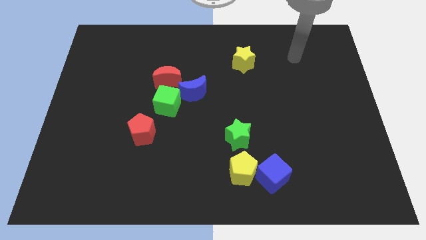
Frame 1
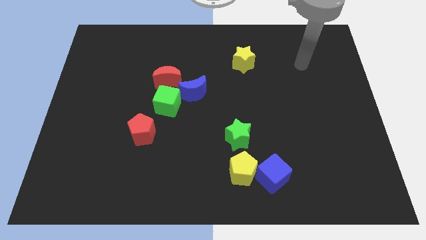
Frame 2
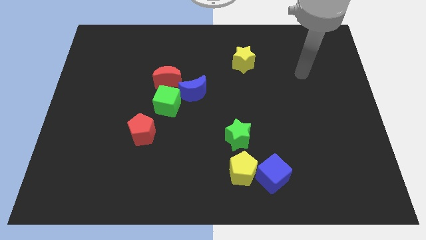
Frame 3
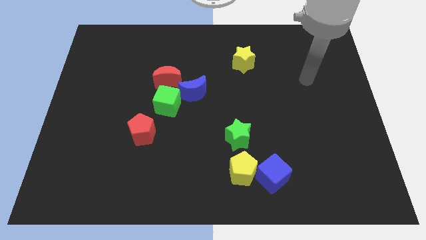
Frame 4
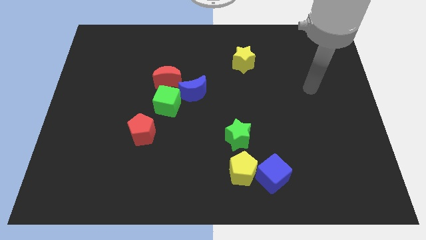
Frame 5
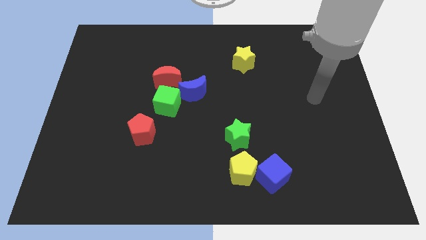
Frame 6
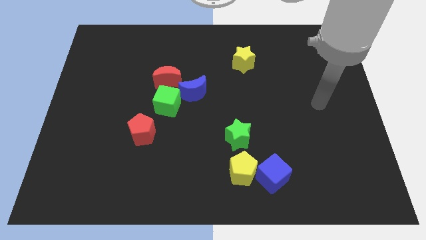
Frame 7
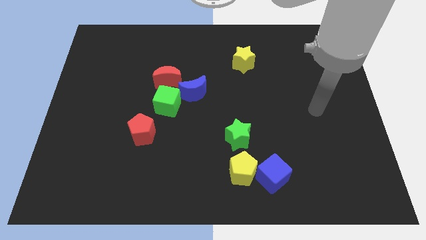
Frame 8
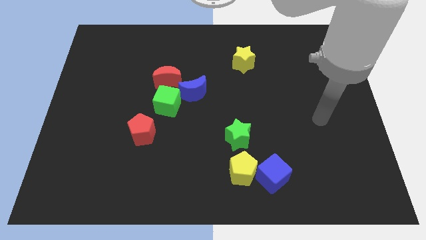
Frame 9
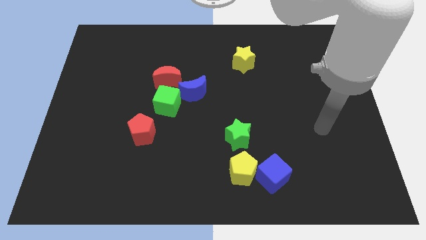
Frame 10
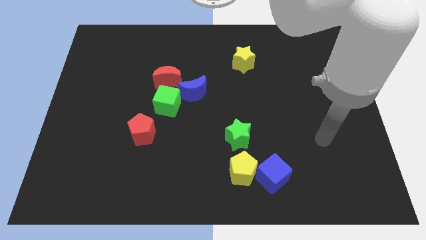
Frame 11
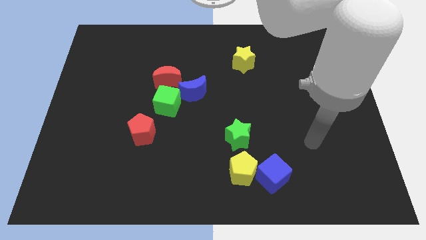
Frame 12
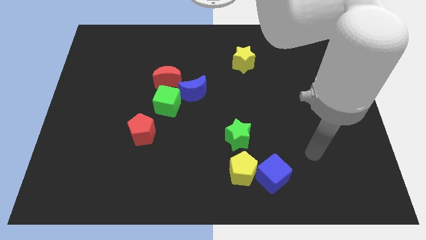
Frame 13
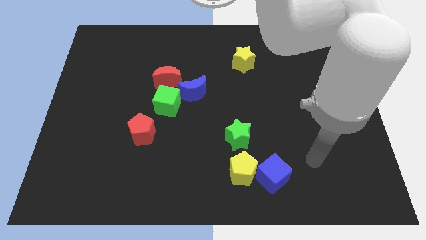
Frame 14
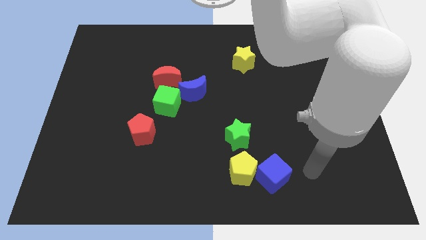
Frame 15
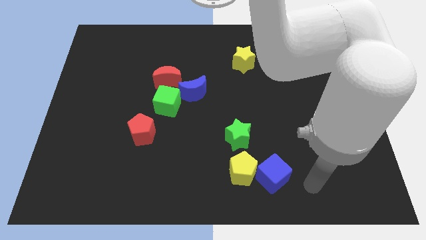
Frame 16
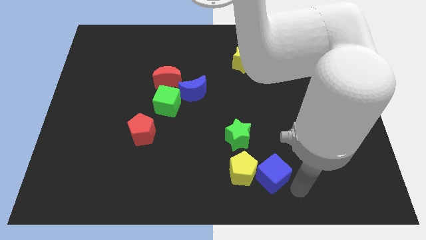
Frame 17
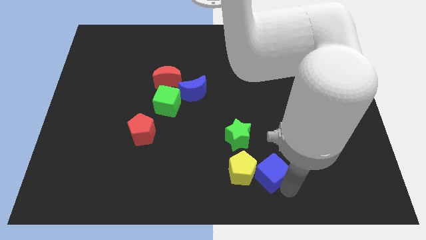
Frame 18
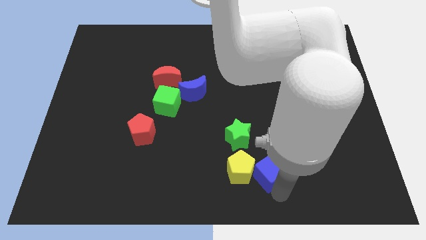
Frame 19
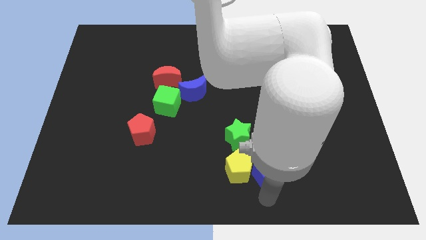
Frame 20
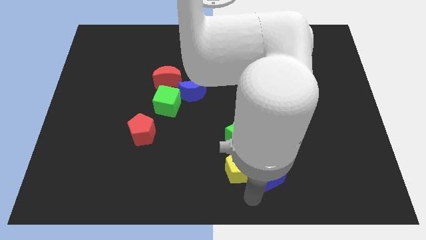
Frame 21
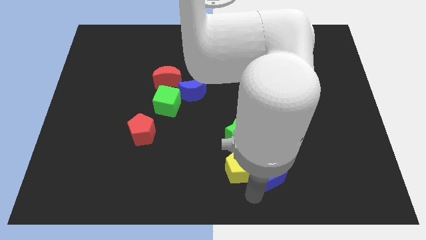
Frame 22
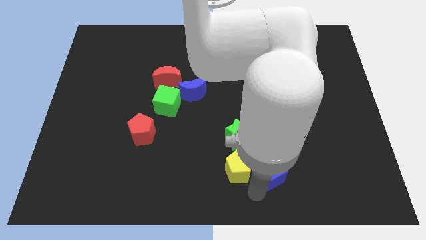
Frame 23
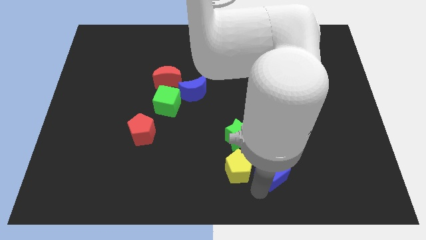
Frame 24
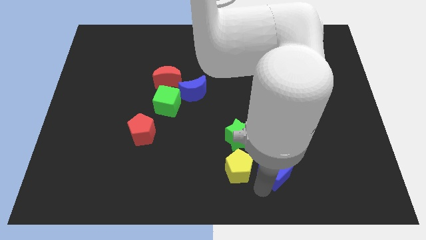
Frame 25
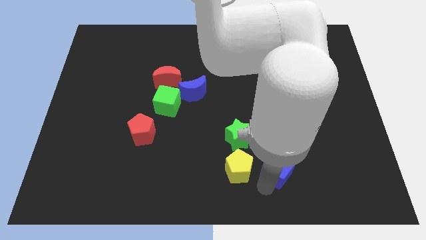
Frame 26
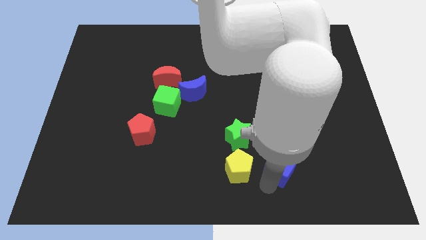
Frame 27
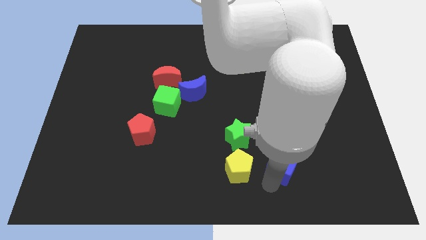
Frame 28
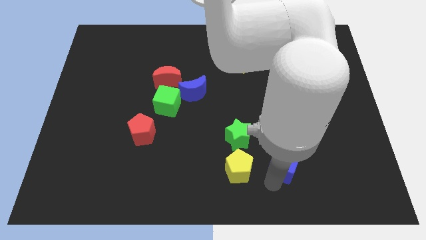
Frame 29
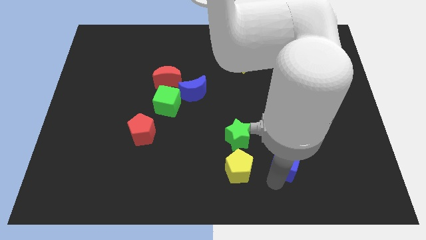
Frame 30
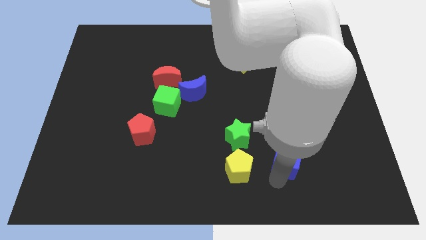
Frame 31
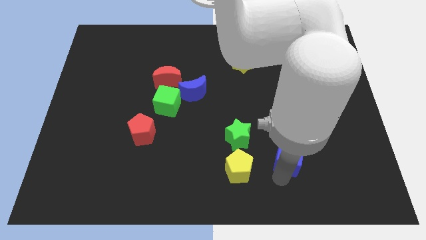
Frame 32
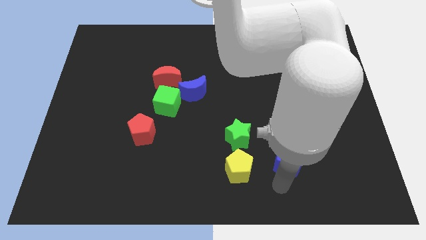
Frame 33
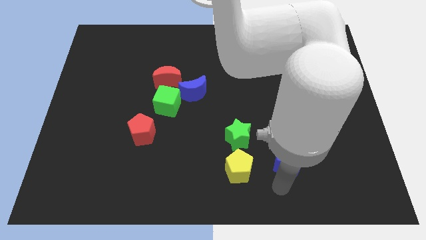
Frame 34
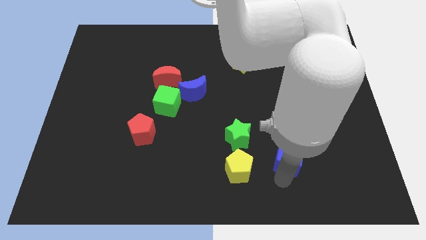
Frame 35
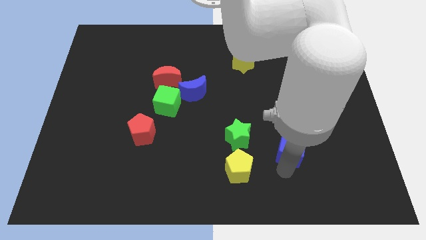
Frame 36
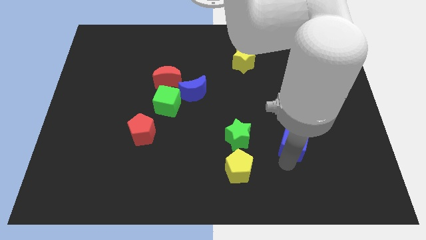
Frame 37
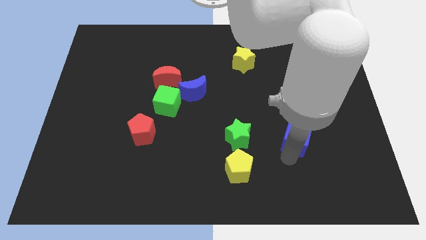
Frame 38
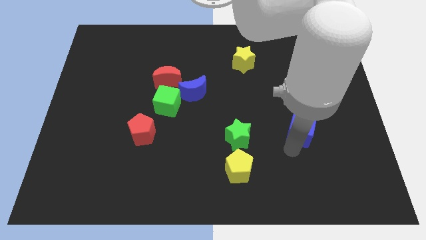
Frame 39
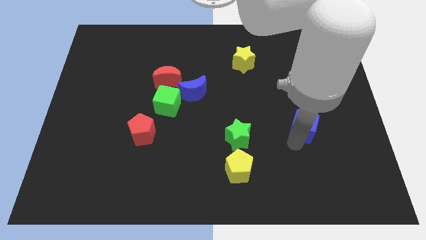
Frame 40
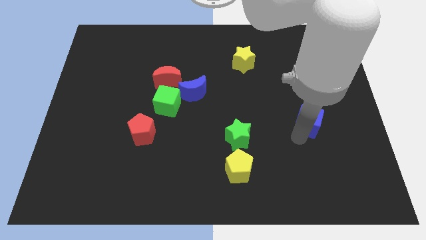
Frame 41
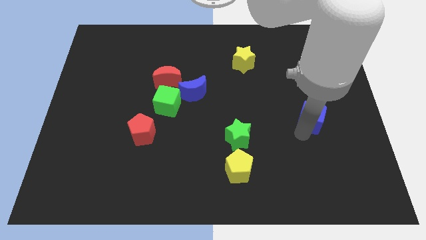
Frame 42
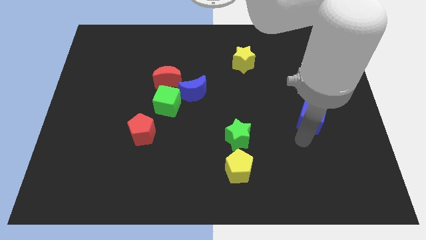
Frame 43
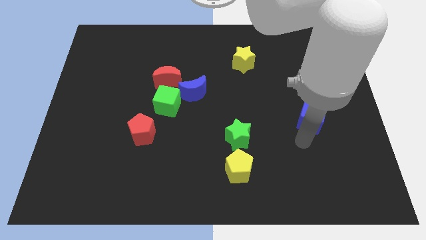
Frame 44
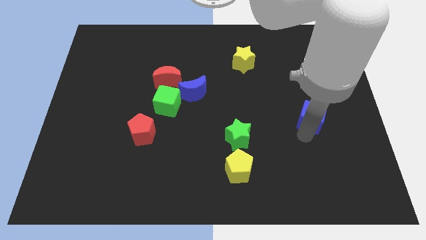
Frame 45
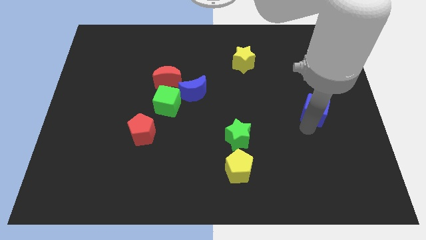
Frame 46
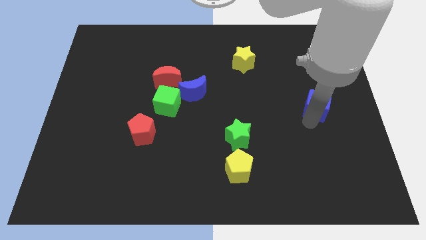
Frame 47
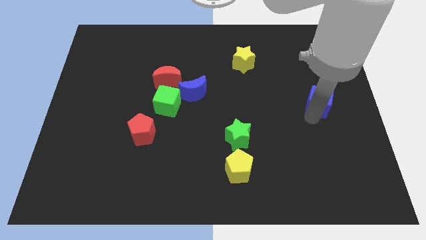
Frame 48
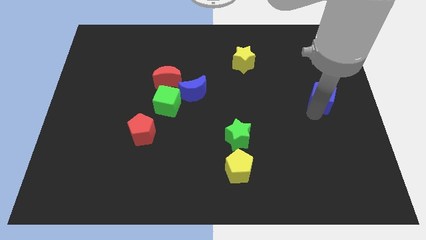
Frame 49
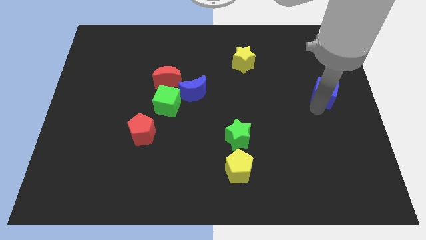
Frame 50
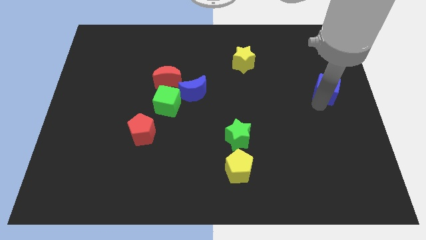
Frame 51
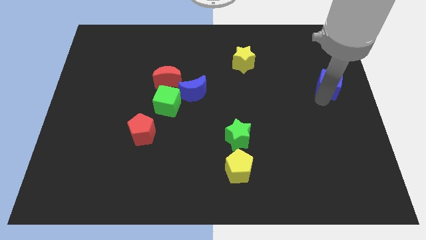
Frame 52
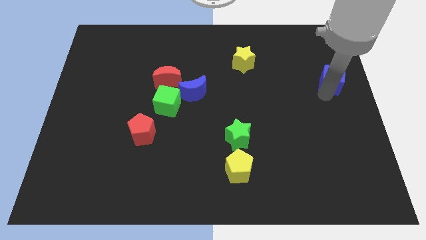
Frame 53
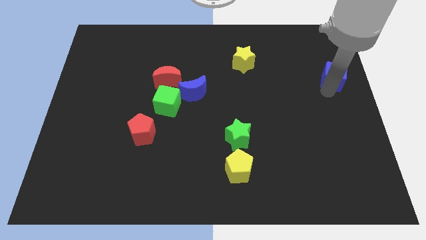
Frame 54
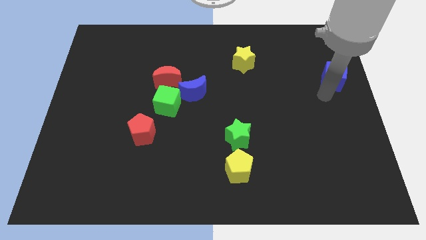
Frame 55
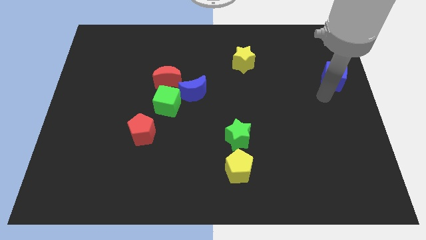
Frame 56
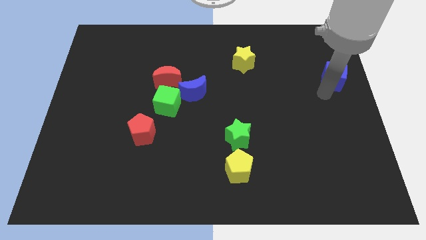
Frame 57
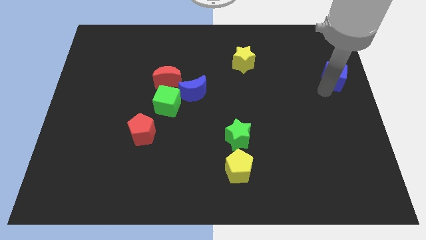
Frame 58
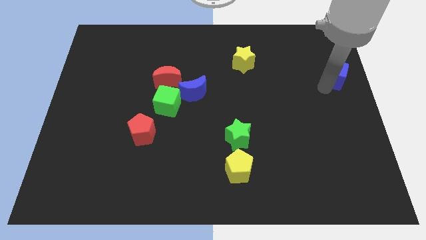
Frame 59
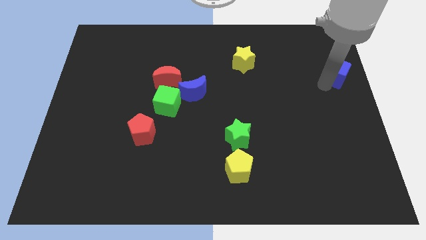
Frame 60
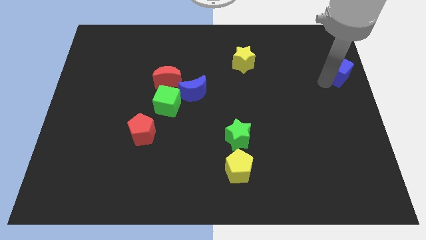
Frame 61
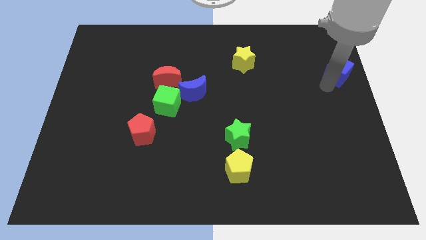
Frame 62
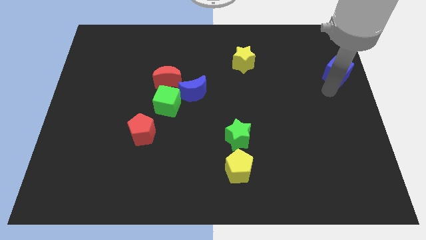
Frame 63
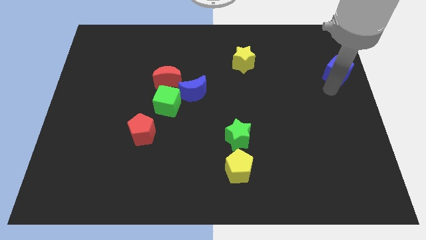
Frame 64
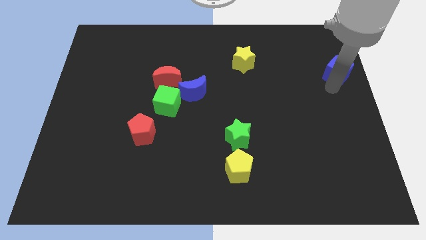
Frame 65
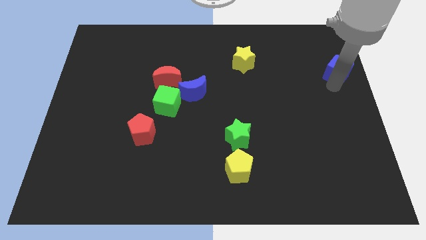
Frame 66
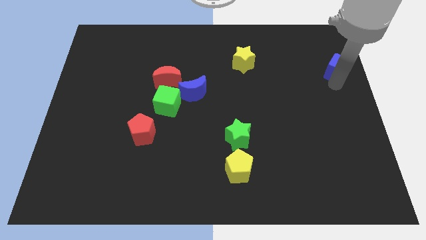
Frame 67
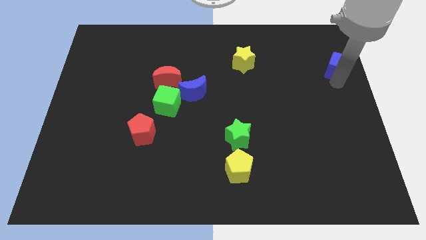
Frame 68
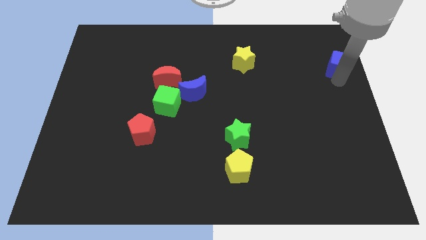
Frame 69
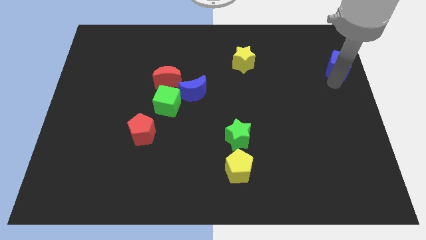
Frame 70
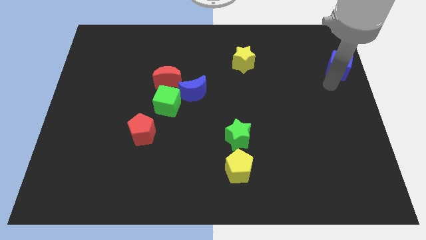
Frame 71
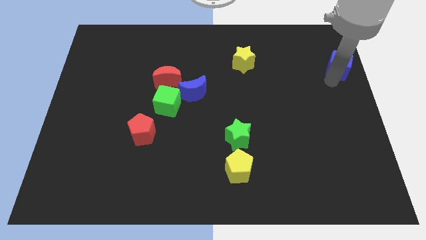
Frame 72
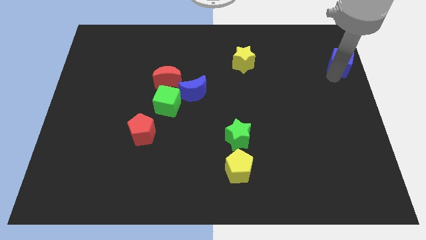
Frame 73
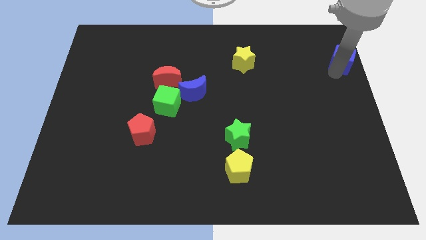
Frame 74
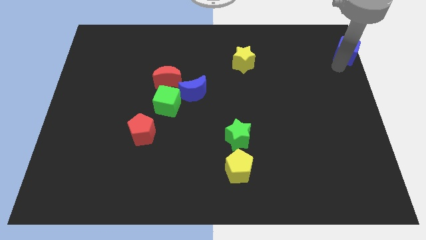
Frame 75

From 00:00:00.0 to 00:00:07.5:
push the blue cube to the top right of the board
